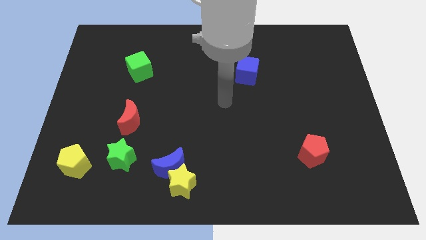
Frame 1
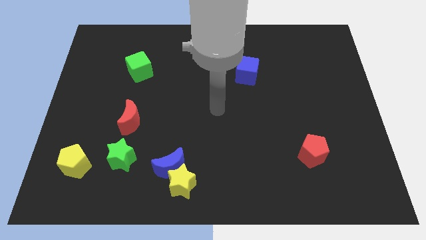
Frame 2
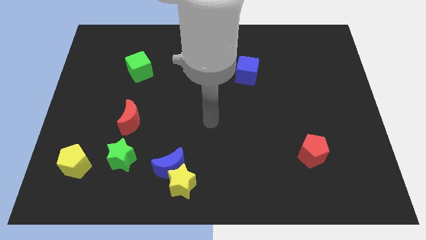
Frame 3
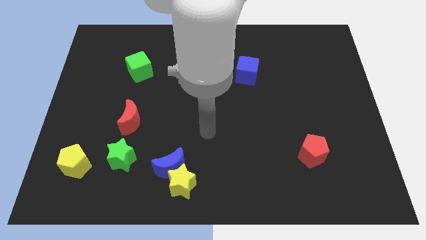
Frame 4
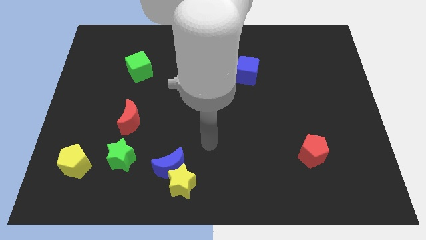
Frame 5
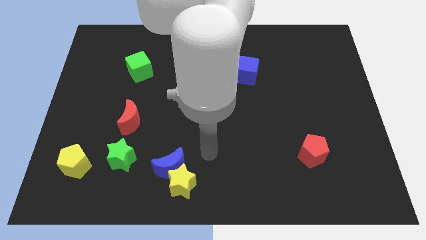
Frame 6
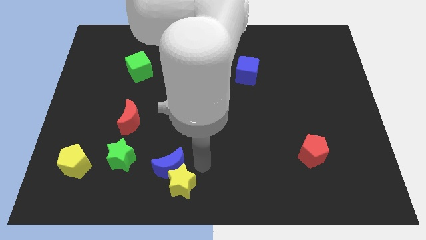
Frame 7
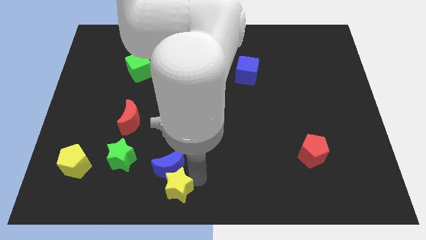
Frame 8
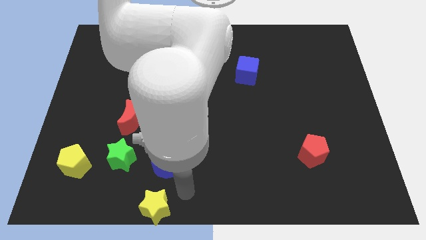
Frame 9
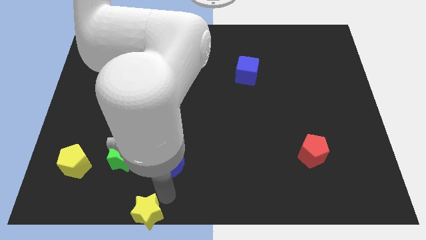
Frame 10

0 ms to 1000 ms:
pull the blue moon apart from the yellow star

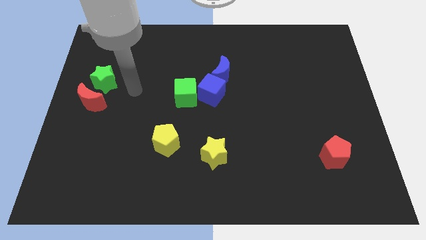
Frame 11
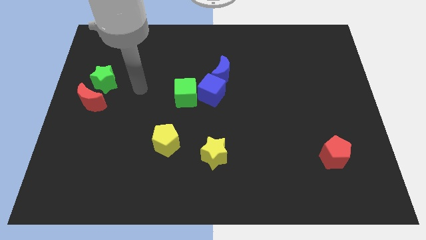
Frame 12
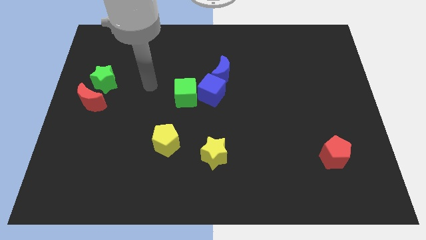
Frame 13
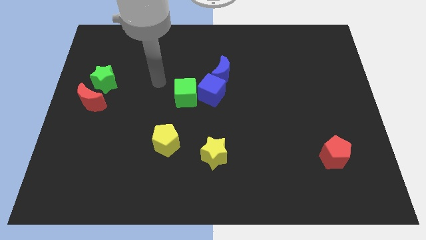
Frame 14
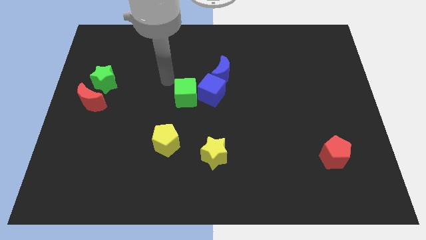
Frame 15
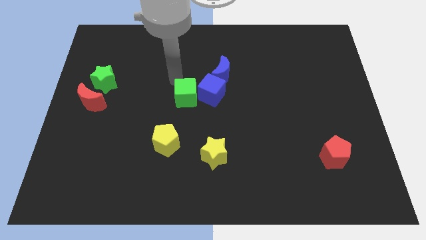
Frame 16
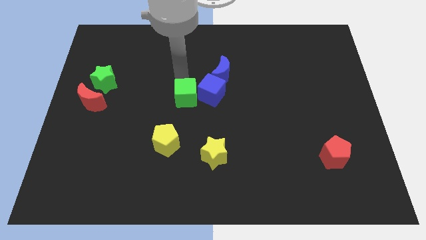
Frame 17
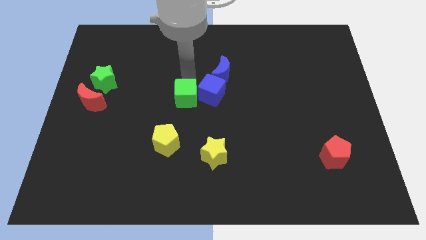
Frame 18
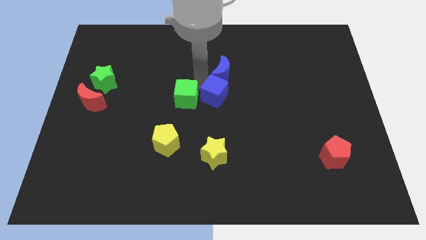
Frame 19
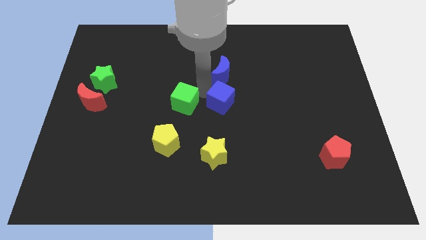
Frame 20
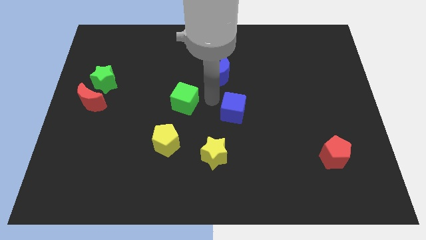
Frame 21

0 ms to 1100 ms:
pull the green cube apart from the blue cube

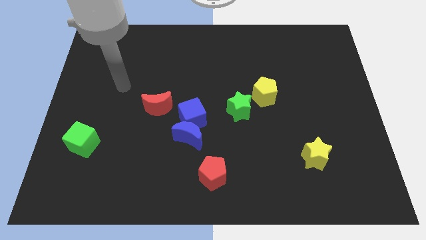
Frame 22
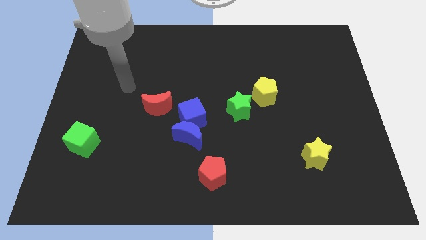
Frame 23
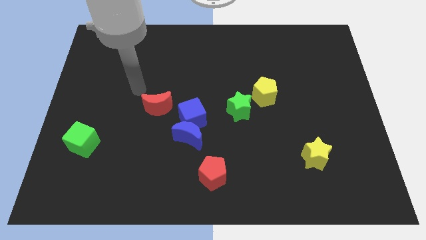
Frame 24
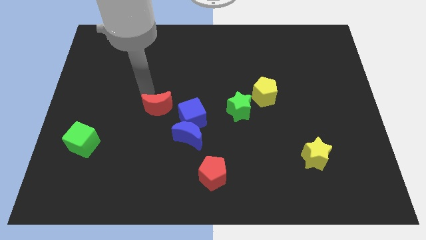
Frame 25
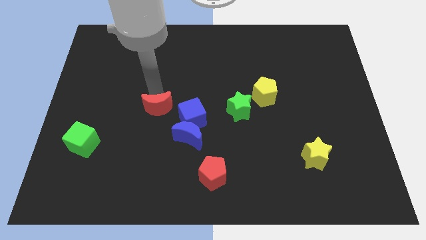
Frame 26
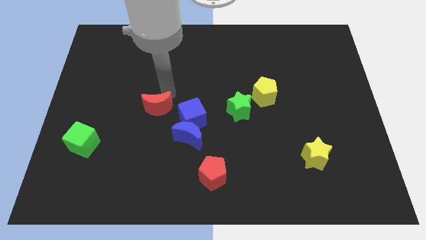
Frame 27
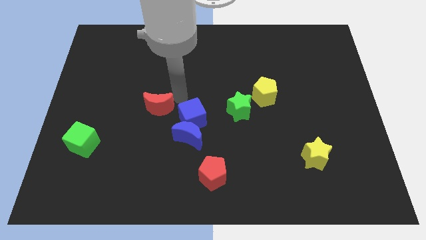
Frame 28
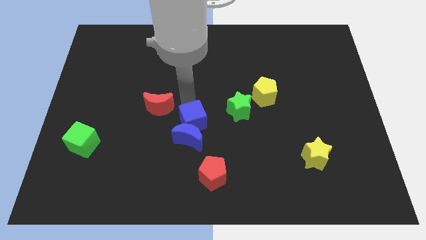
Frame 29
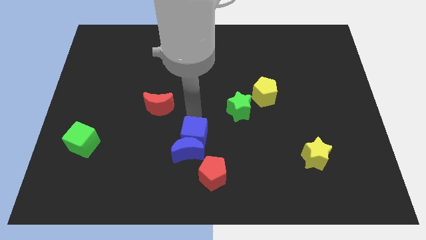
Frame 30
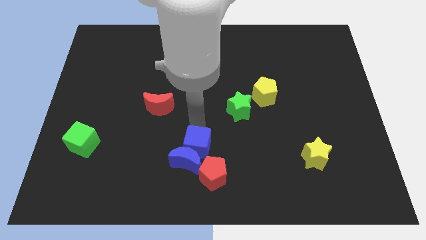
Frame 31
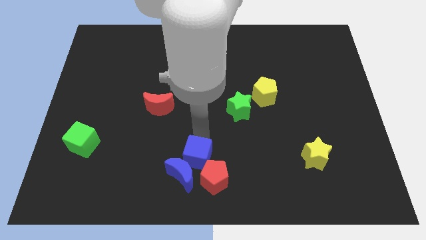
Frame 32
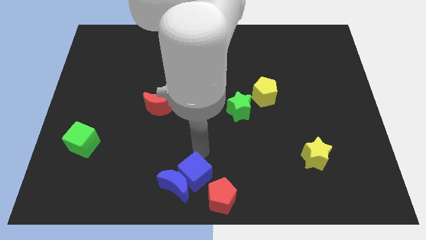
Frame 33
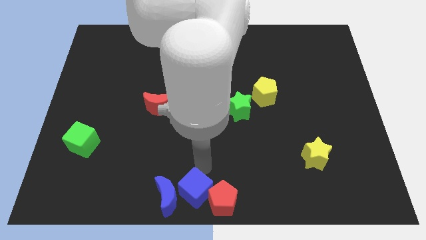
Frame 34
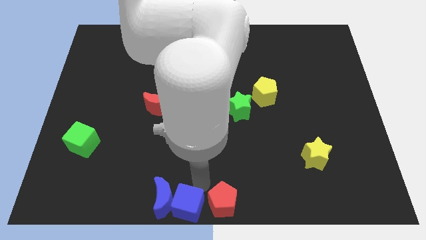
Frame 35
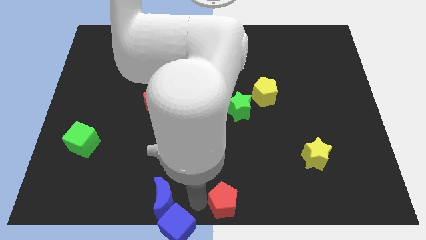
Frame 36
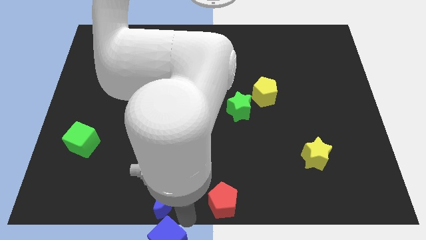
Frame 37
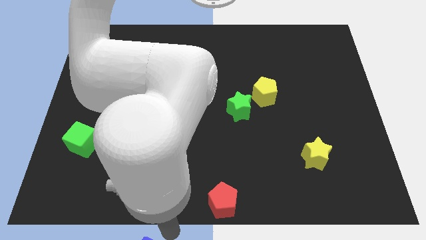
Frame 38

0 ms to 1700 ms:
separate the blue moon from the blue cube

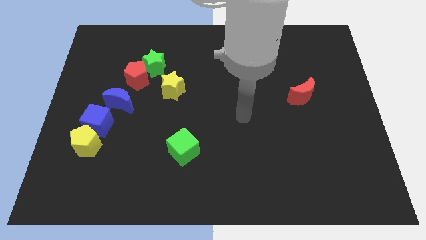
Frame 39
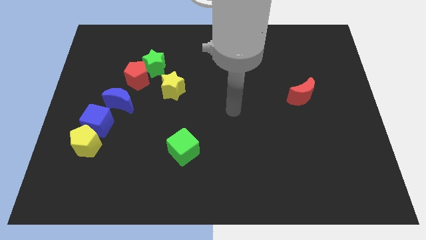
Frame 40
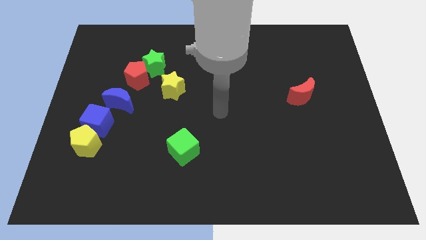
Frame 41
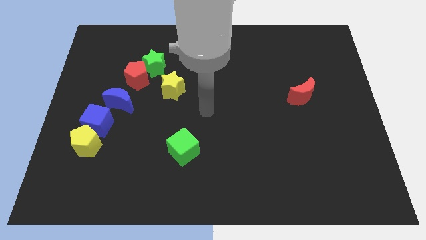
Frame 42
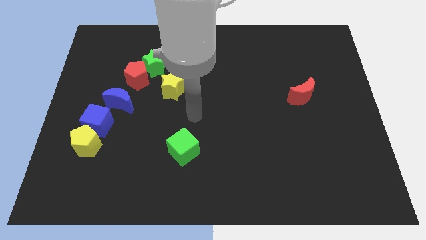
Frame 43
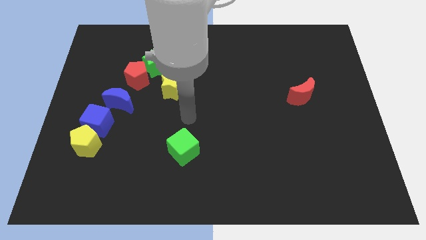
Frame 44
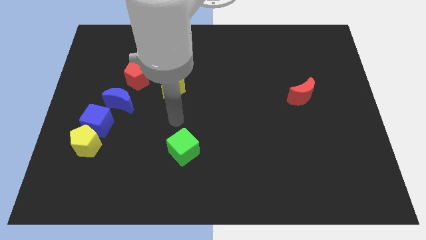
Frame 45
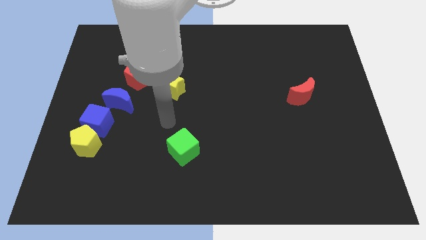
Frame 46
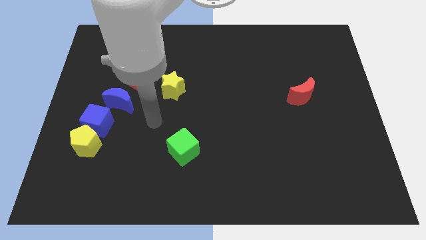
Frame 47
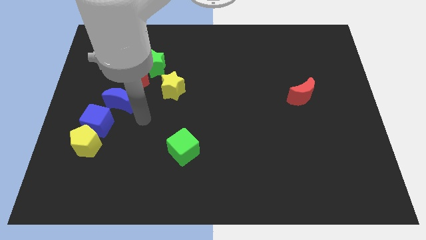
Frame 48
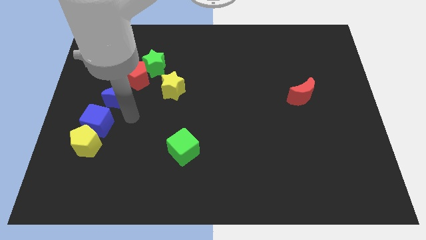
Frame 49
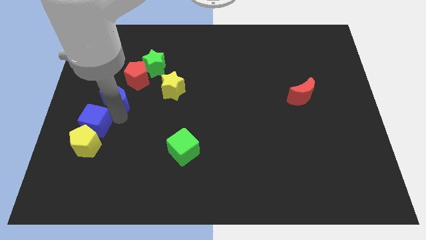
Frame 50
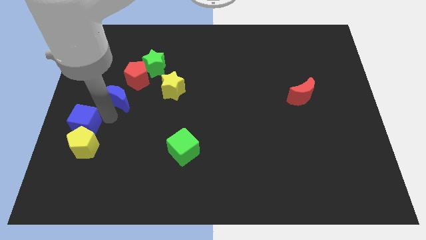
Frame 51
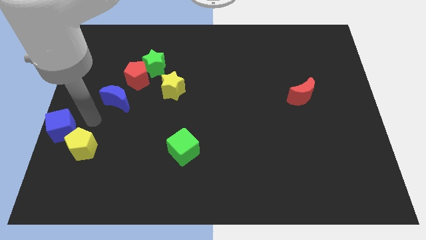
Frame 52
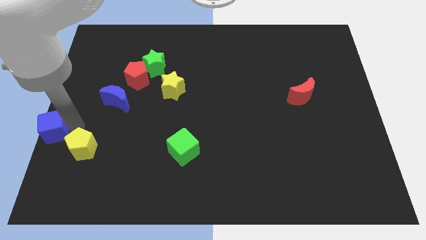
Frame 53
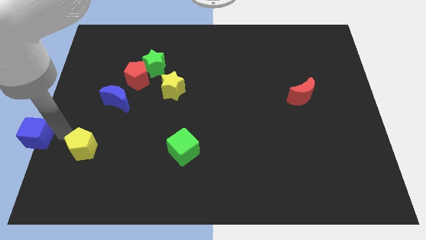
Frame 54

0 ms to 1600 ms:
pull the yellow pentagon apart from the blue cube

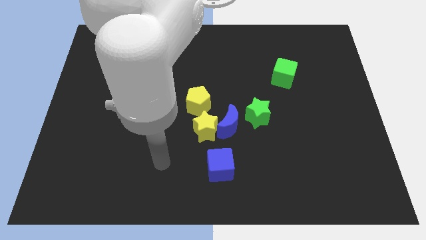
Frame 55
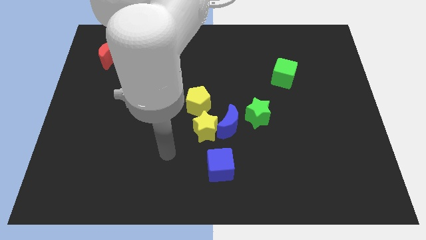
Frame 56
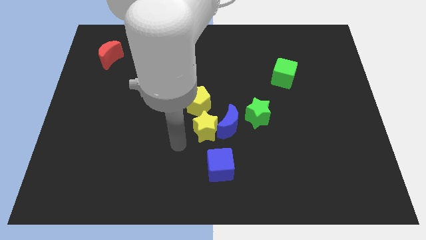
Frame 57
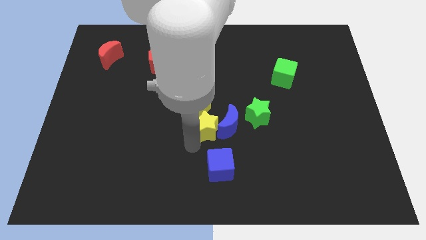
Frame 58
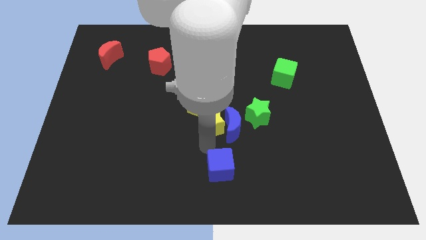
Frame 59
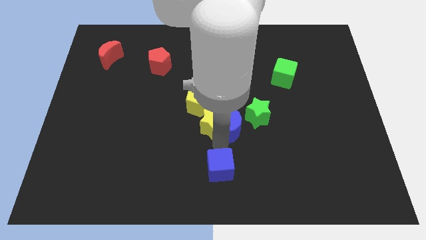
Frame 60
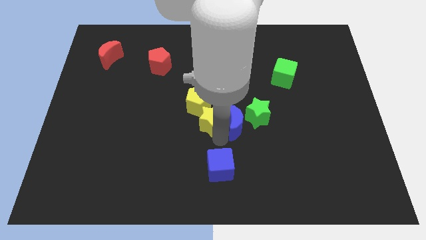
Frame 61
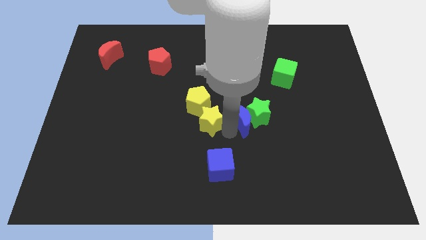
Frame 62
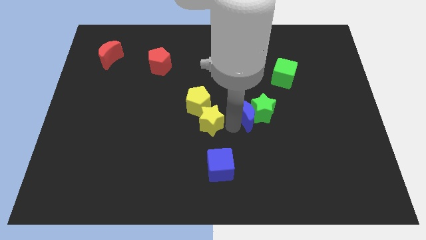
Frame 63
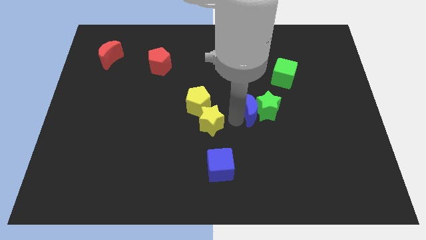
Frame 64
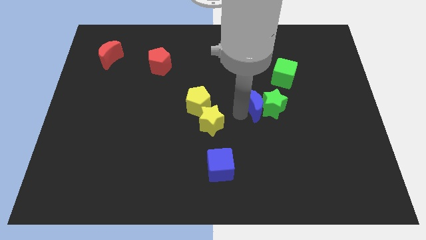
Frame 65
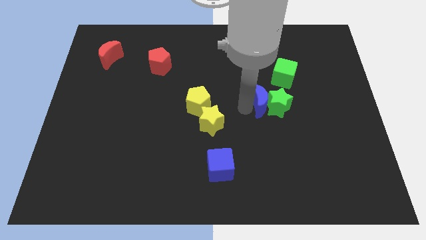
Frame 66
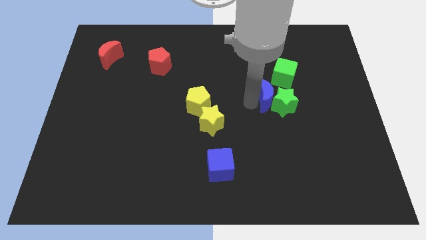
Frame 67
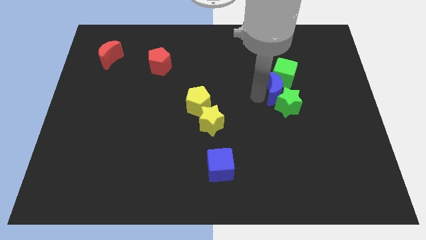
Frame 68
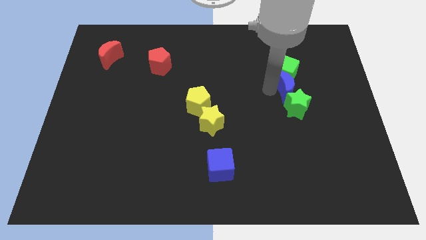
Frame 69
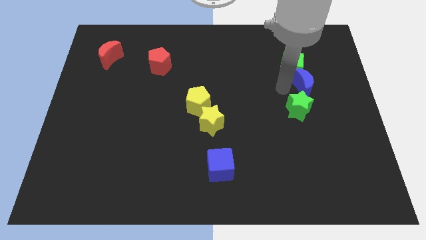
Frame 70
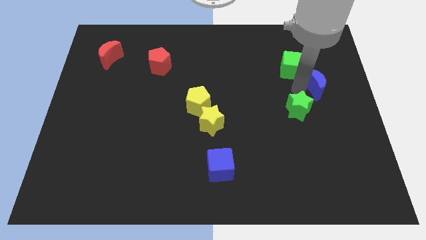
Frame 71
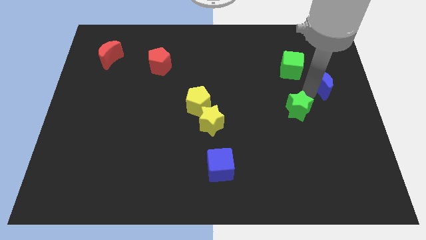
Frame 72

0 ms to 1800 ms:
separate the green star from the blue moon

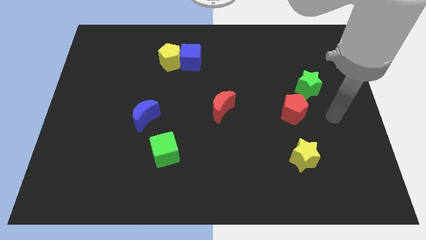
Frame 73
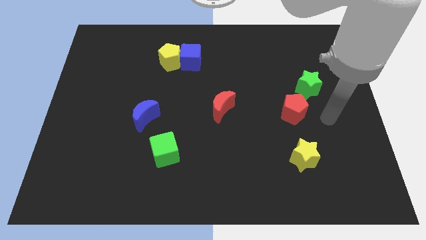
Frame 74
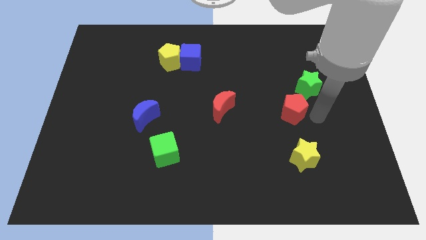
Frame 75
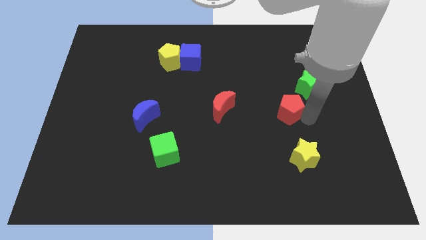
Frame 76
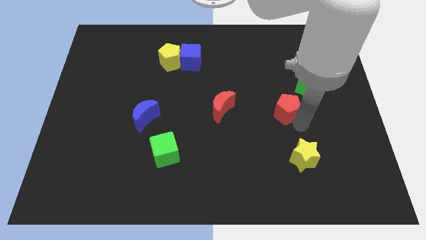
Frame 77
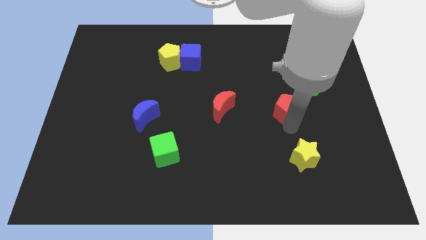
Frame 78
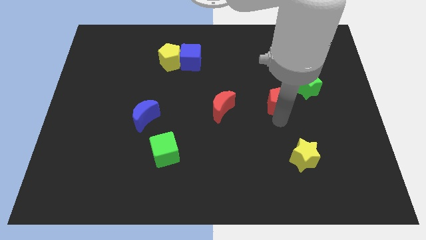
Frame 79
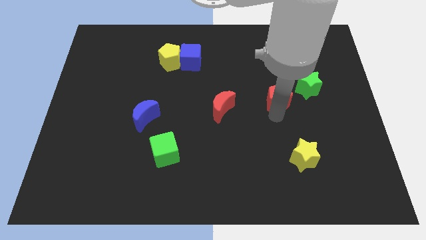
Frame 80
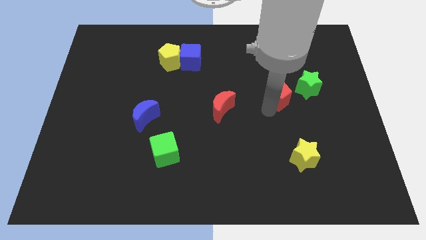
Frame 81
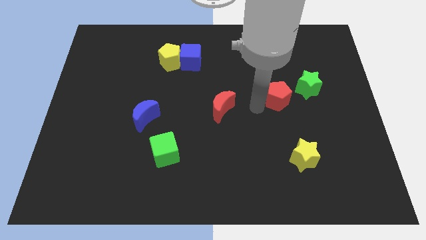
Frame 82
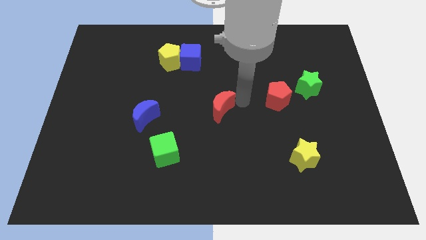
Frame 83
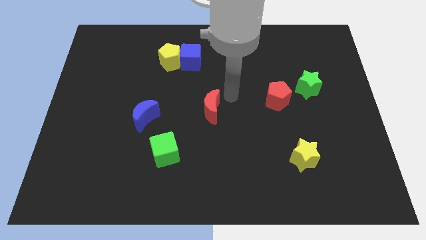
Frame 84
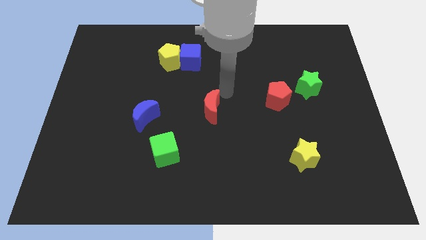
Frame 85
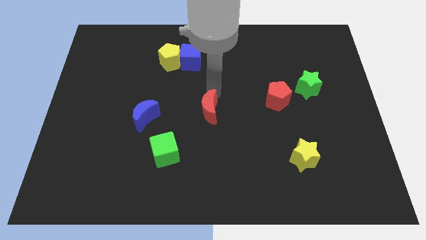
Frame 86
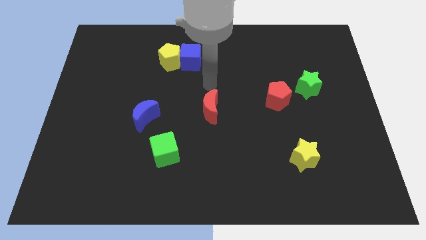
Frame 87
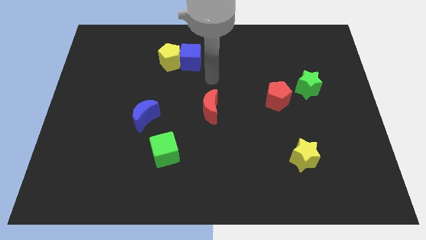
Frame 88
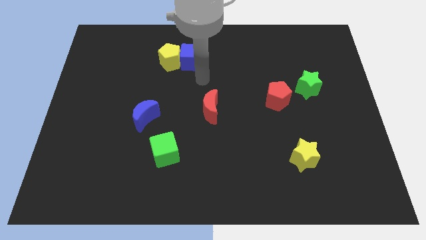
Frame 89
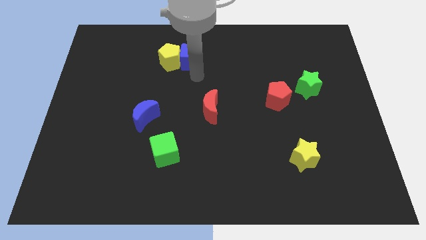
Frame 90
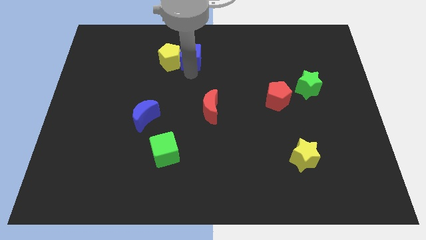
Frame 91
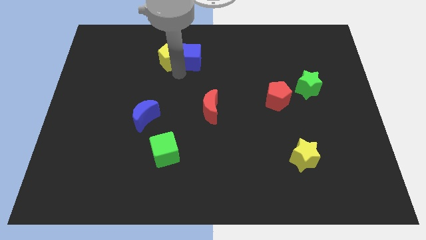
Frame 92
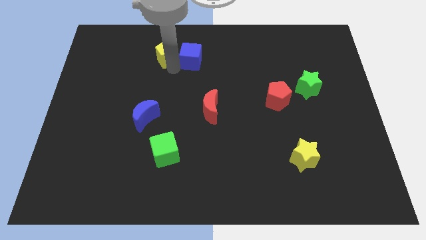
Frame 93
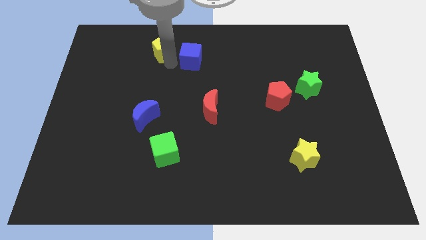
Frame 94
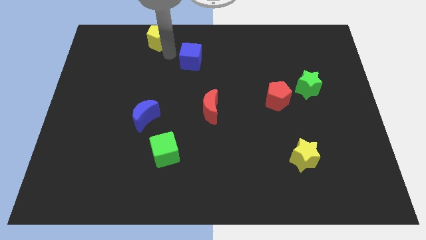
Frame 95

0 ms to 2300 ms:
move the blue cube away from the yellow pentagon
